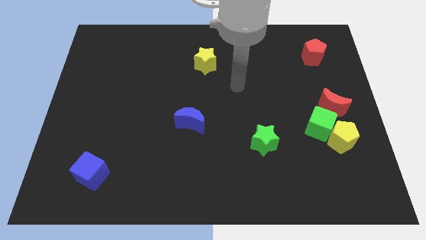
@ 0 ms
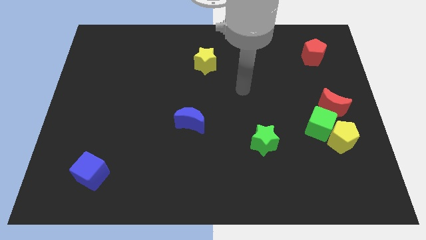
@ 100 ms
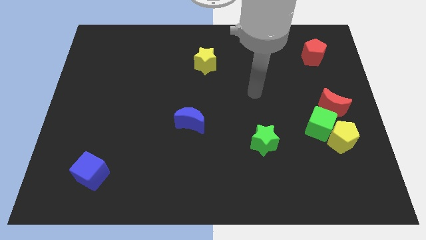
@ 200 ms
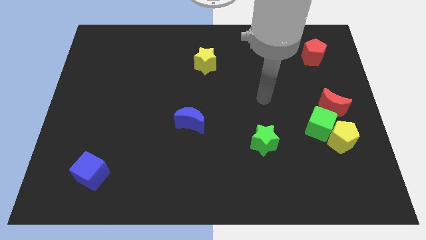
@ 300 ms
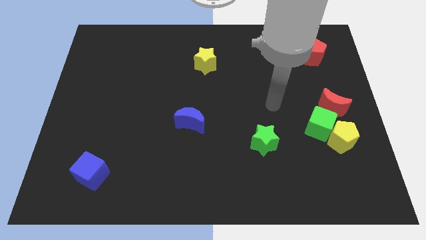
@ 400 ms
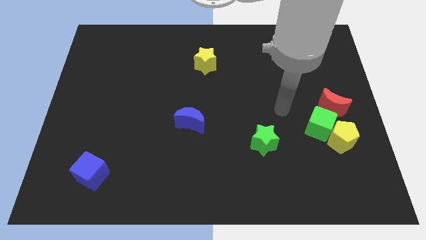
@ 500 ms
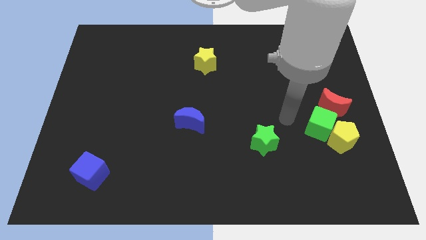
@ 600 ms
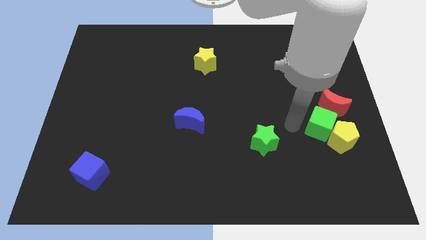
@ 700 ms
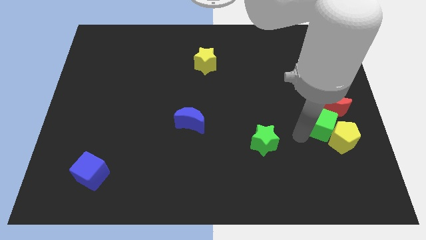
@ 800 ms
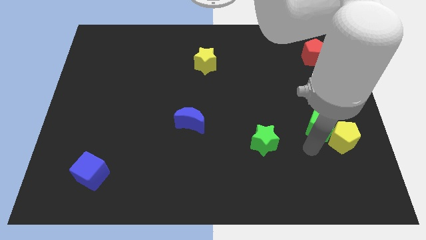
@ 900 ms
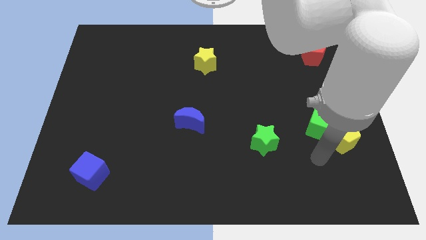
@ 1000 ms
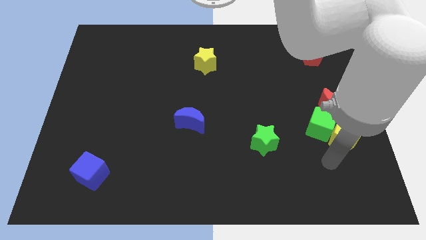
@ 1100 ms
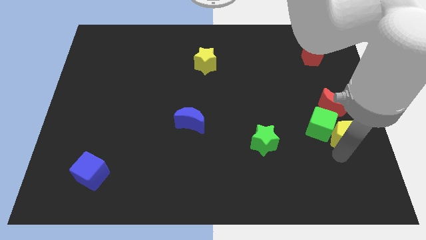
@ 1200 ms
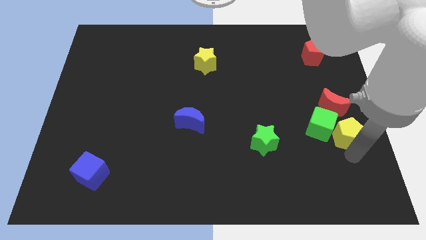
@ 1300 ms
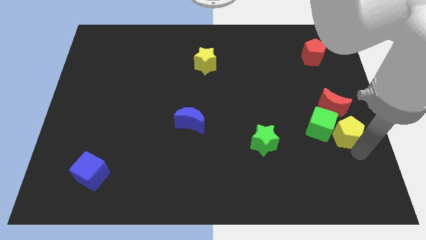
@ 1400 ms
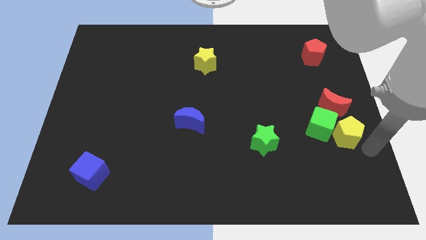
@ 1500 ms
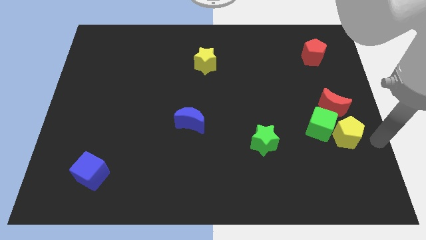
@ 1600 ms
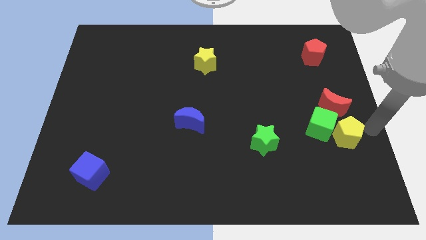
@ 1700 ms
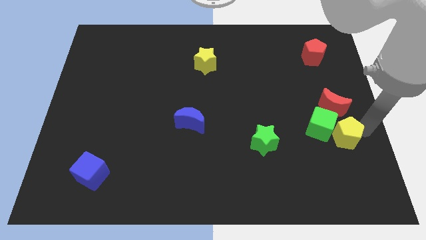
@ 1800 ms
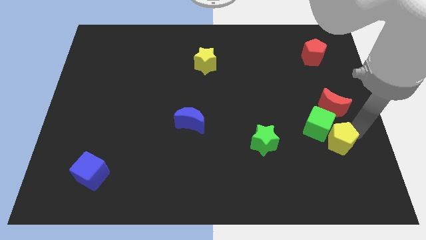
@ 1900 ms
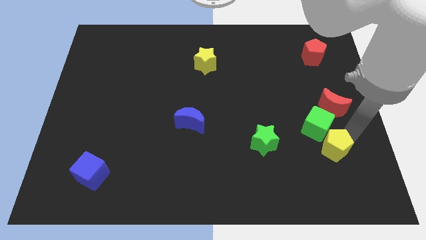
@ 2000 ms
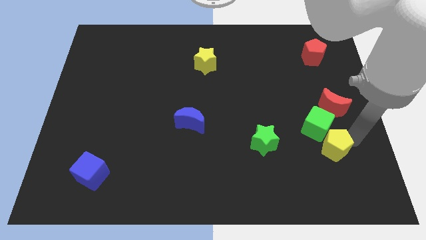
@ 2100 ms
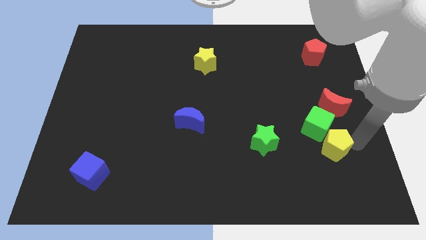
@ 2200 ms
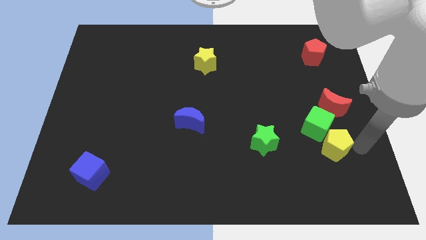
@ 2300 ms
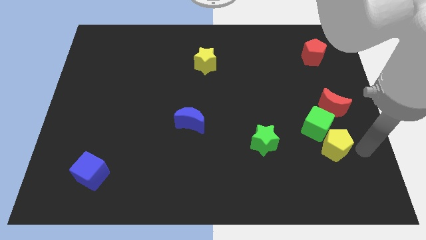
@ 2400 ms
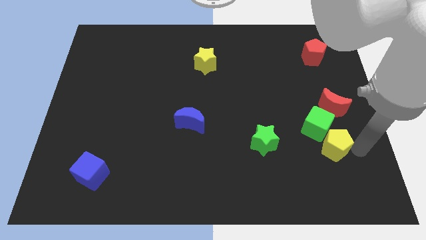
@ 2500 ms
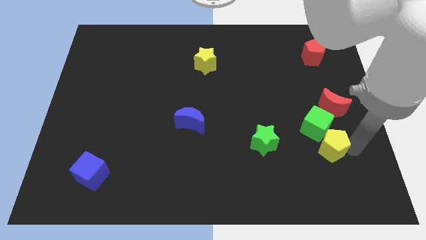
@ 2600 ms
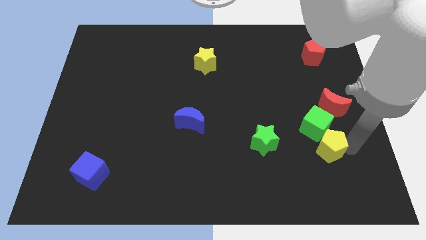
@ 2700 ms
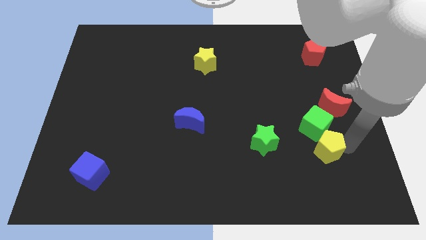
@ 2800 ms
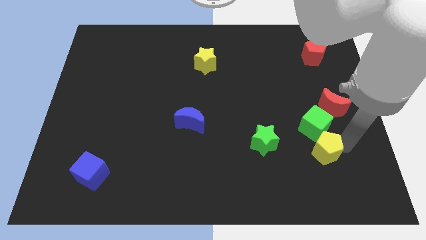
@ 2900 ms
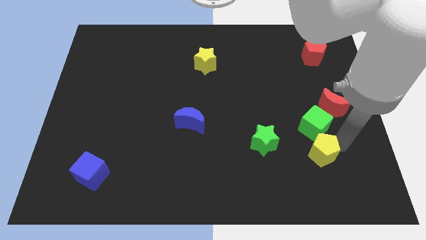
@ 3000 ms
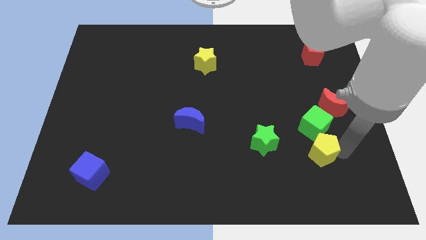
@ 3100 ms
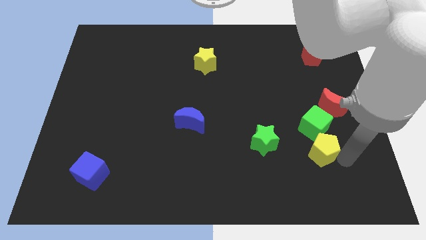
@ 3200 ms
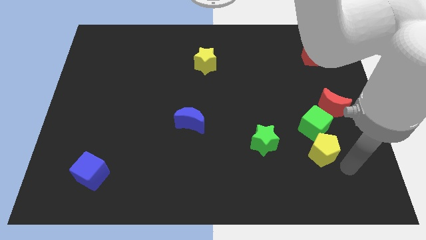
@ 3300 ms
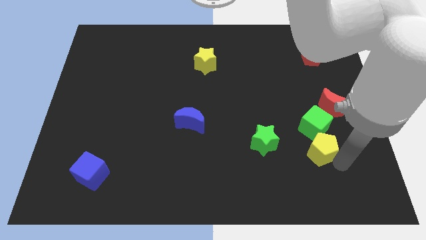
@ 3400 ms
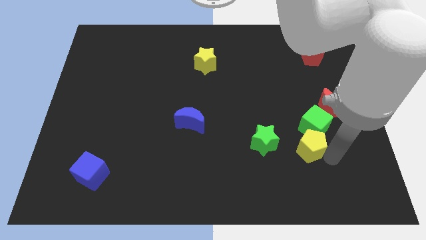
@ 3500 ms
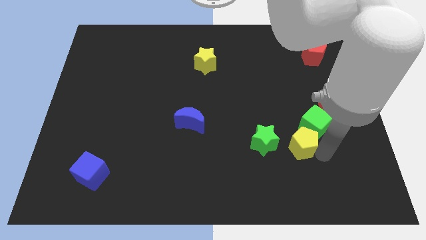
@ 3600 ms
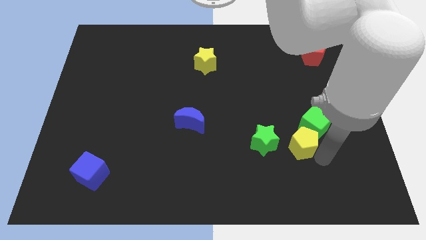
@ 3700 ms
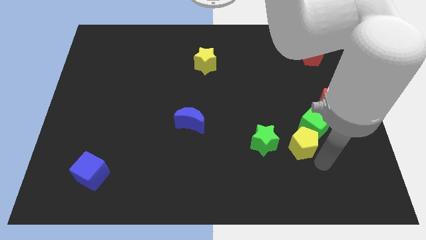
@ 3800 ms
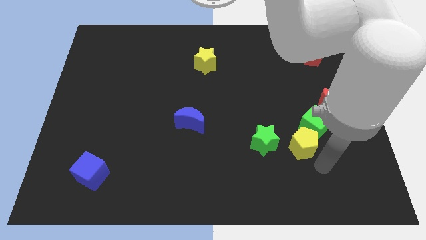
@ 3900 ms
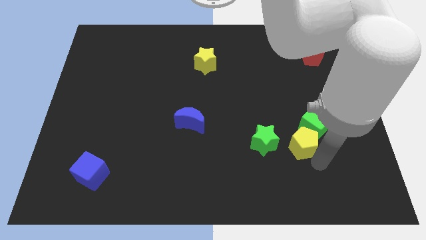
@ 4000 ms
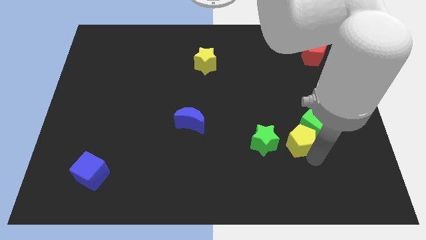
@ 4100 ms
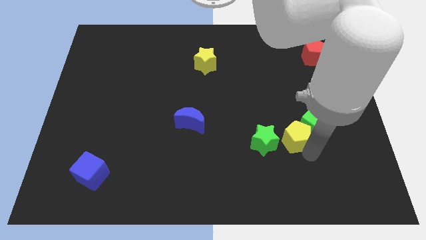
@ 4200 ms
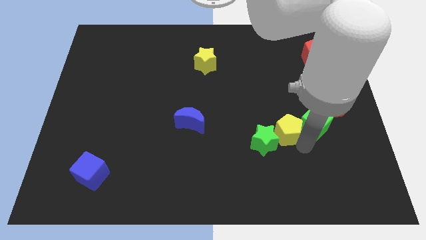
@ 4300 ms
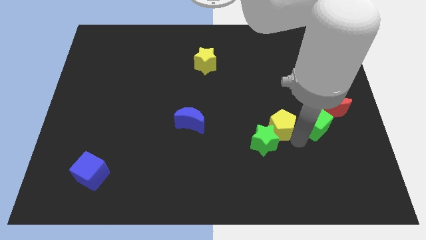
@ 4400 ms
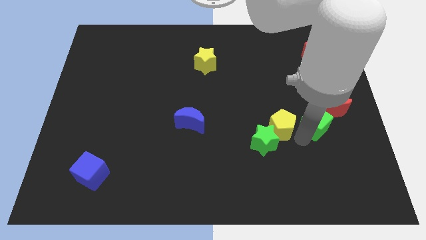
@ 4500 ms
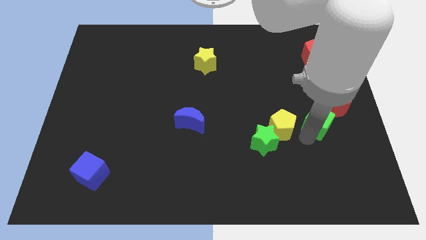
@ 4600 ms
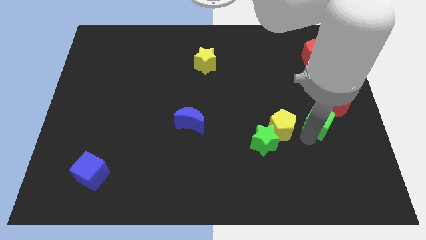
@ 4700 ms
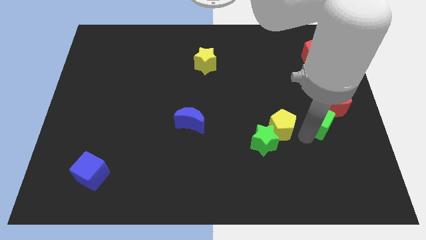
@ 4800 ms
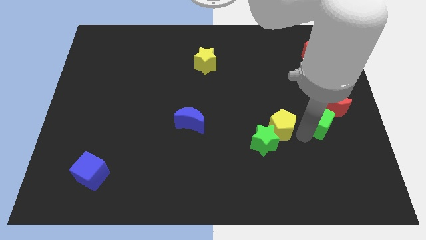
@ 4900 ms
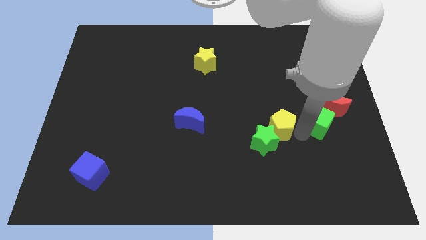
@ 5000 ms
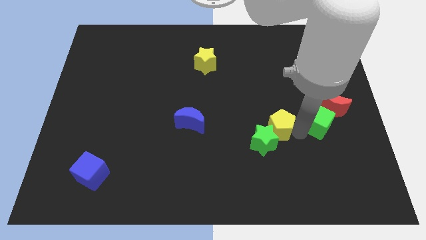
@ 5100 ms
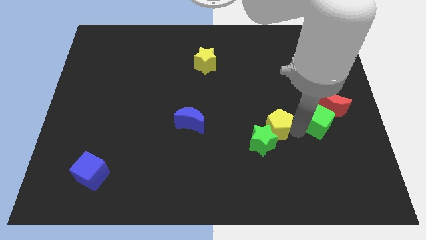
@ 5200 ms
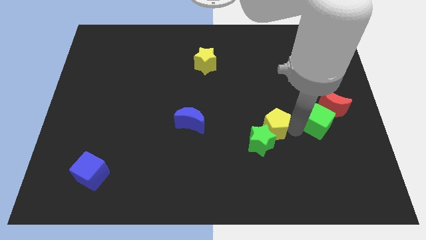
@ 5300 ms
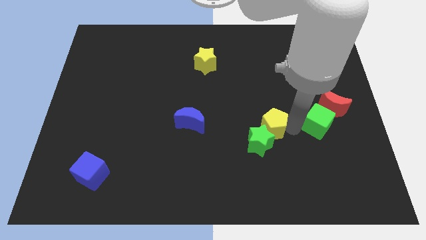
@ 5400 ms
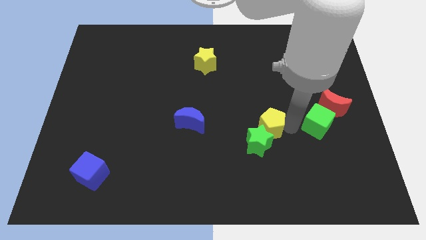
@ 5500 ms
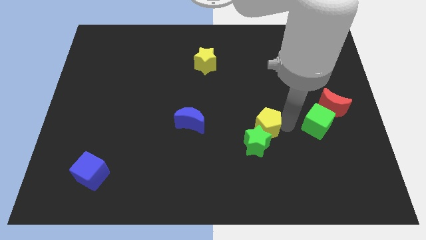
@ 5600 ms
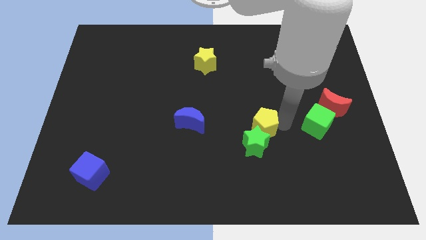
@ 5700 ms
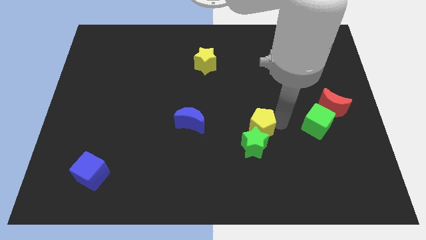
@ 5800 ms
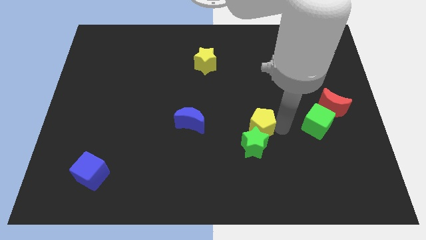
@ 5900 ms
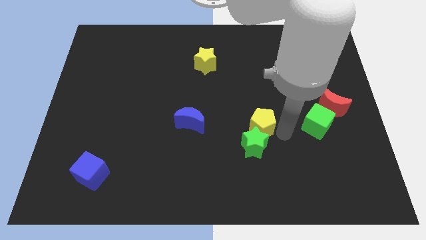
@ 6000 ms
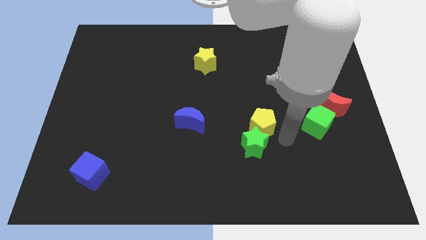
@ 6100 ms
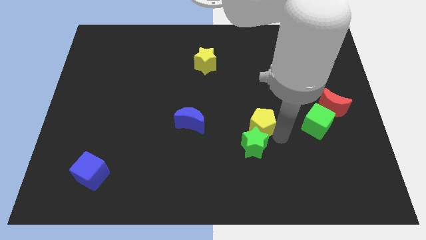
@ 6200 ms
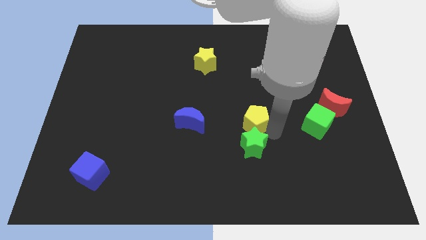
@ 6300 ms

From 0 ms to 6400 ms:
push the yellow pentagon to the center

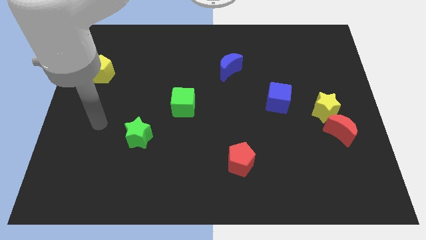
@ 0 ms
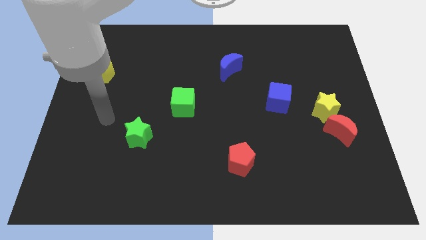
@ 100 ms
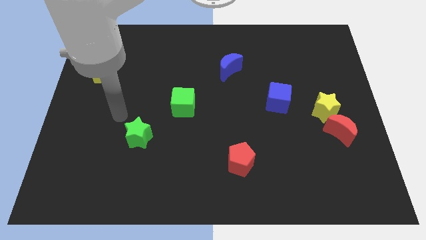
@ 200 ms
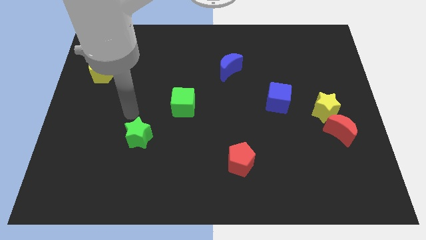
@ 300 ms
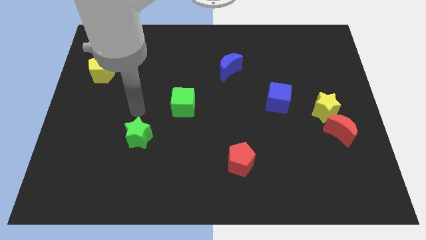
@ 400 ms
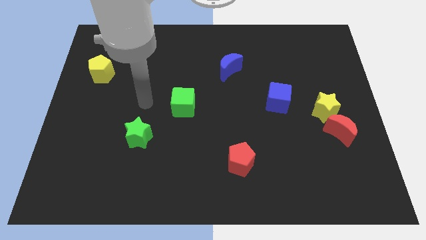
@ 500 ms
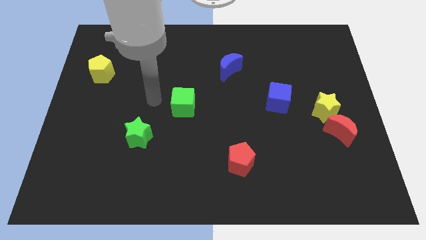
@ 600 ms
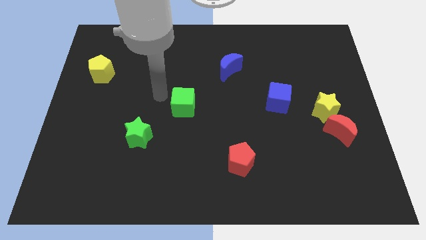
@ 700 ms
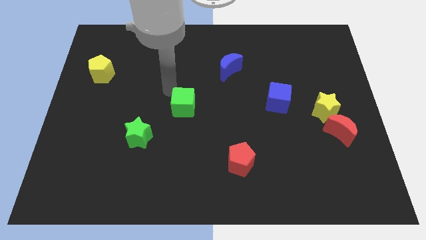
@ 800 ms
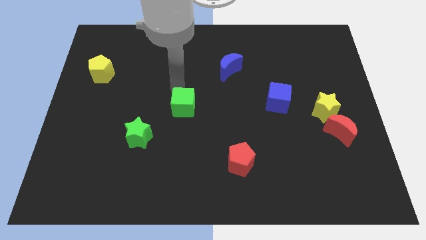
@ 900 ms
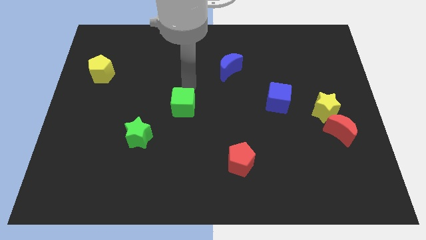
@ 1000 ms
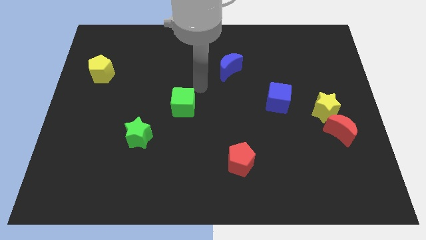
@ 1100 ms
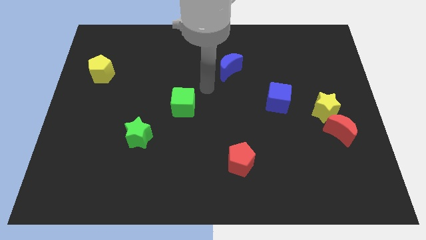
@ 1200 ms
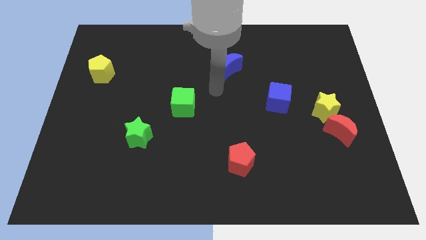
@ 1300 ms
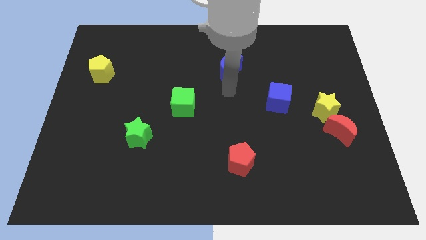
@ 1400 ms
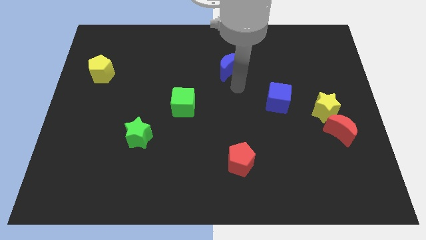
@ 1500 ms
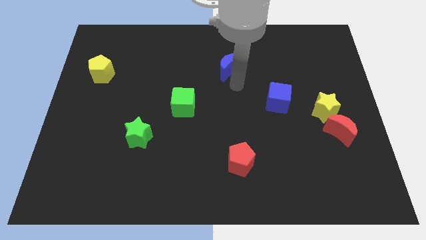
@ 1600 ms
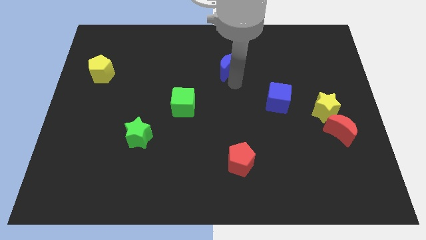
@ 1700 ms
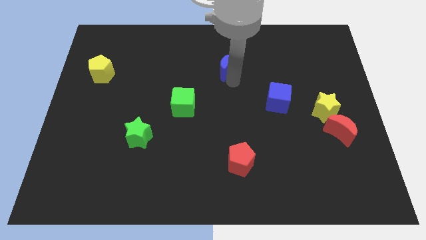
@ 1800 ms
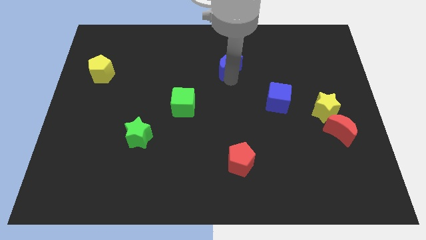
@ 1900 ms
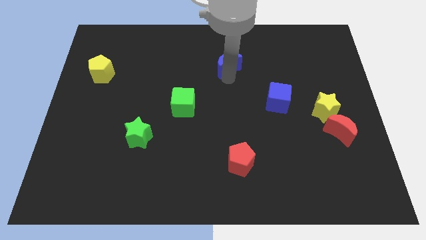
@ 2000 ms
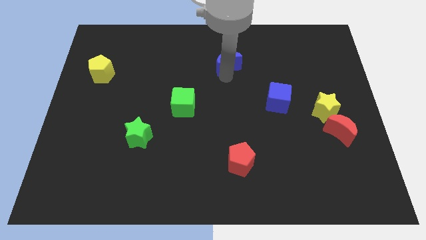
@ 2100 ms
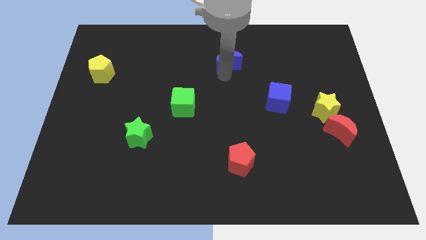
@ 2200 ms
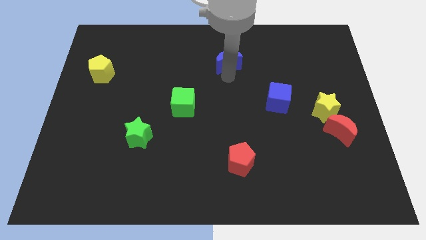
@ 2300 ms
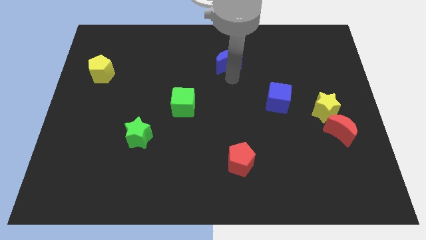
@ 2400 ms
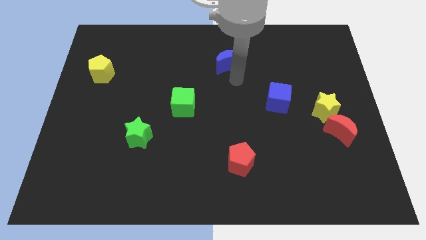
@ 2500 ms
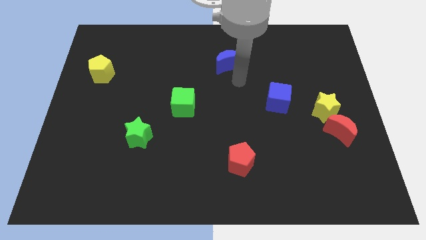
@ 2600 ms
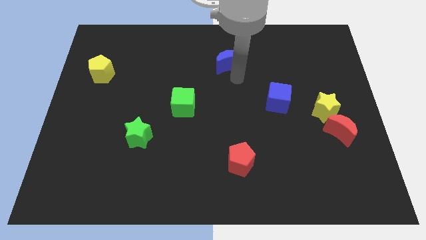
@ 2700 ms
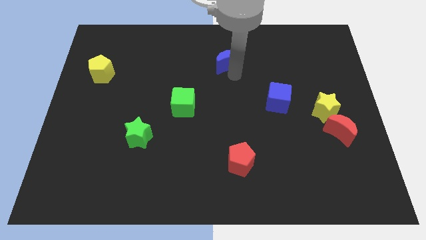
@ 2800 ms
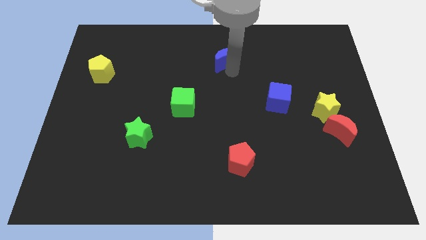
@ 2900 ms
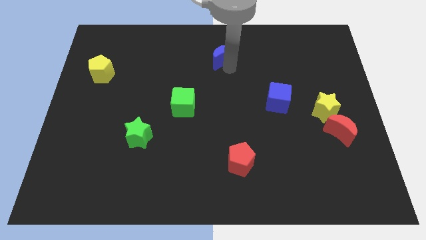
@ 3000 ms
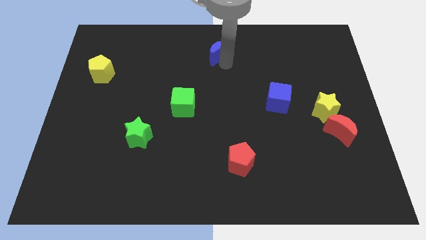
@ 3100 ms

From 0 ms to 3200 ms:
push the blue moon to the top side
